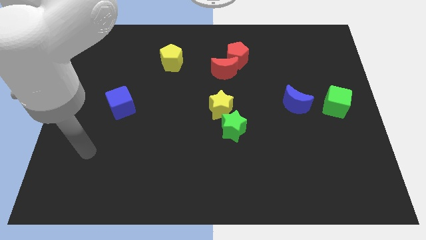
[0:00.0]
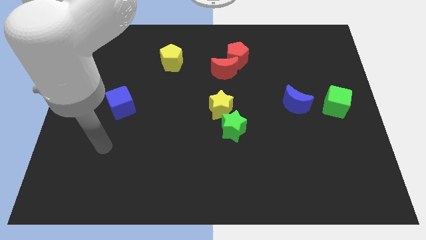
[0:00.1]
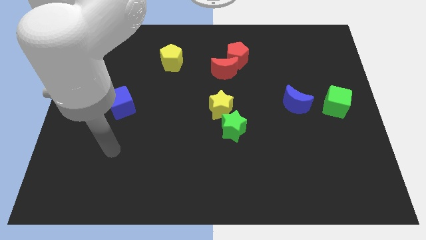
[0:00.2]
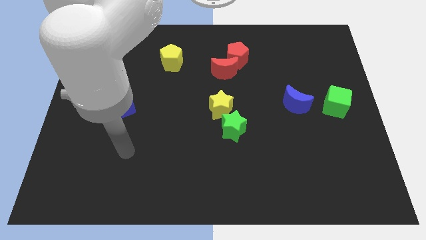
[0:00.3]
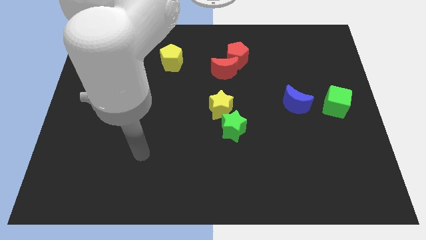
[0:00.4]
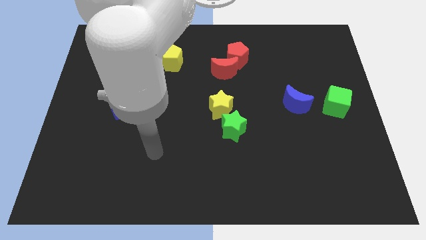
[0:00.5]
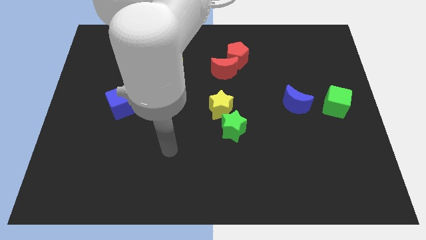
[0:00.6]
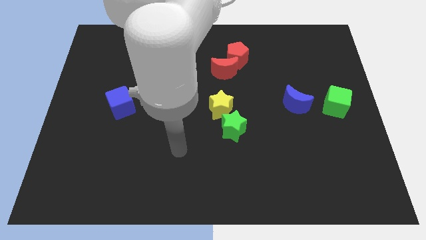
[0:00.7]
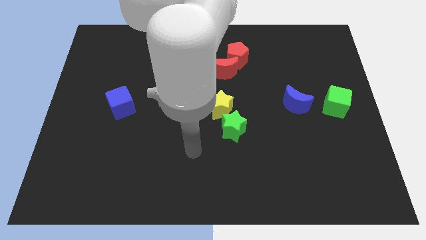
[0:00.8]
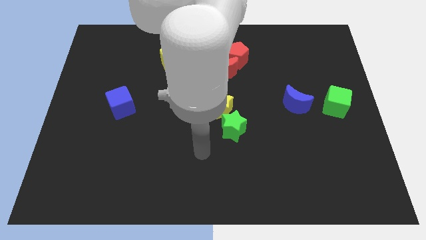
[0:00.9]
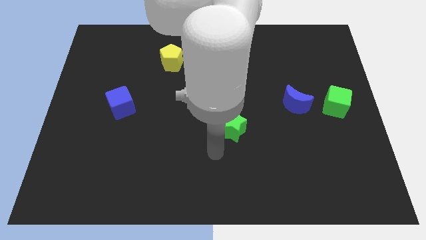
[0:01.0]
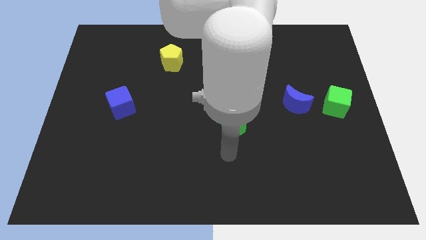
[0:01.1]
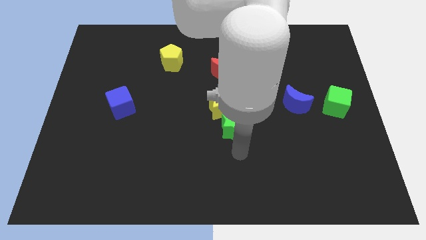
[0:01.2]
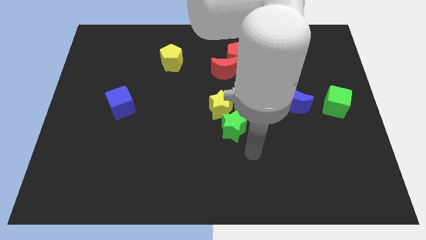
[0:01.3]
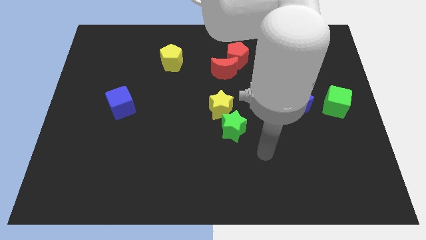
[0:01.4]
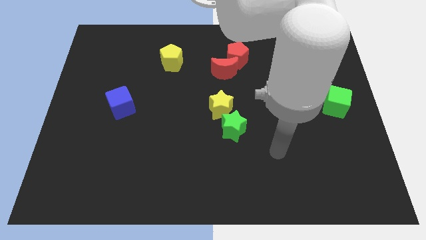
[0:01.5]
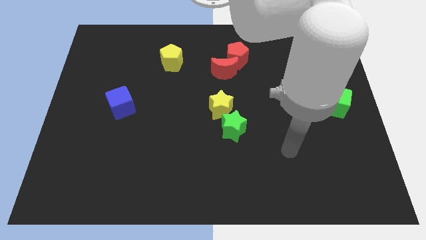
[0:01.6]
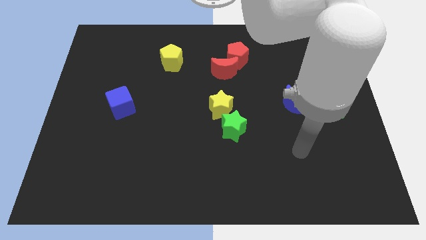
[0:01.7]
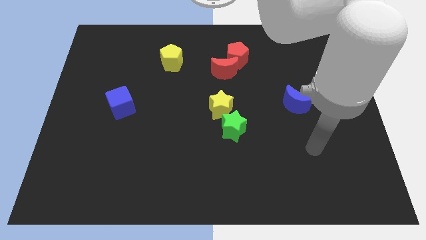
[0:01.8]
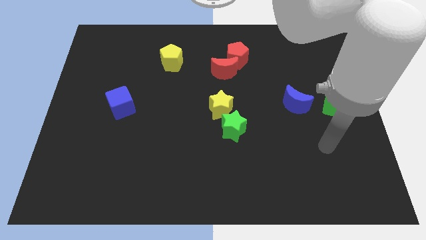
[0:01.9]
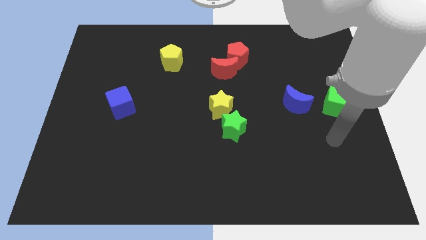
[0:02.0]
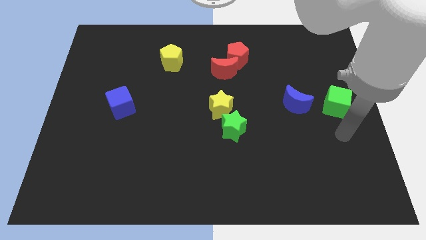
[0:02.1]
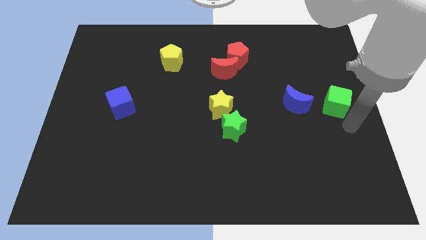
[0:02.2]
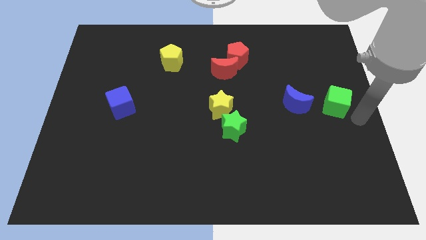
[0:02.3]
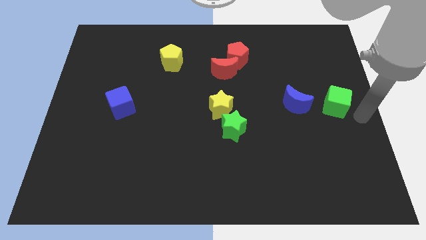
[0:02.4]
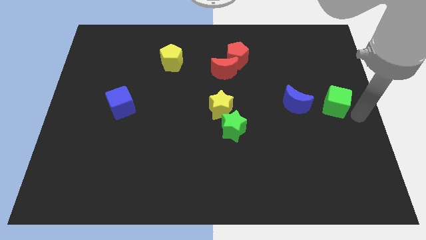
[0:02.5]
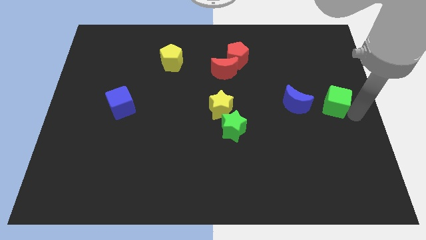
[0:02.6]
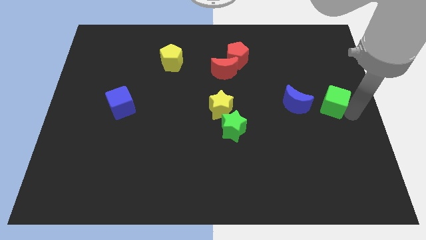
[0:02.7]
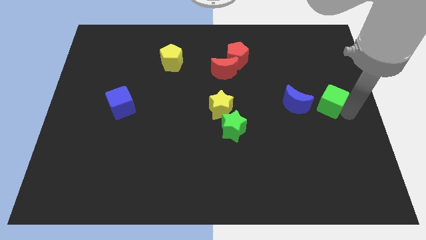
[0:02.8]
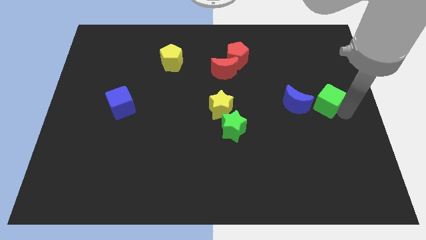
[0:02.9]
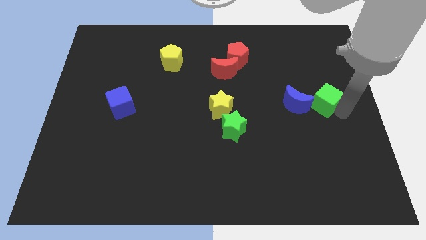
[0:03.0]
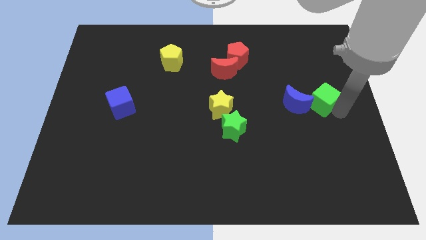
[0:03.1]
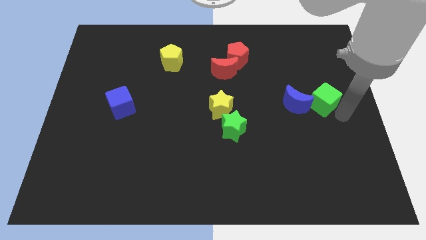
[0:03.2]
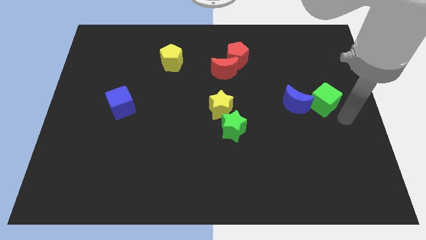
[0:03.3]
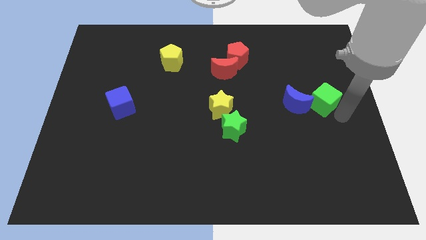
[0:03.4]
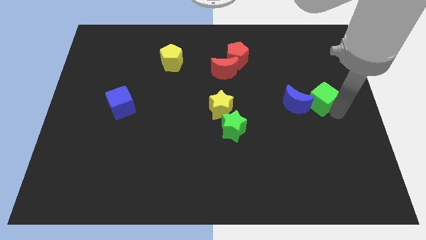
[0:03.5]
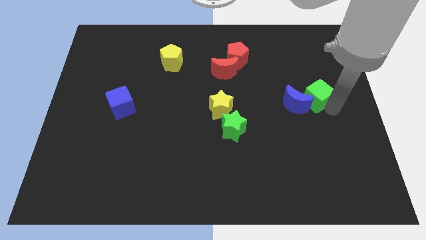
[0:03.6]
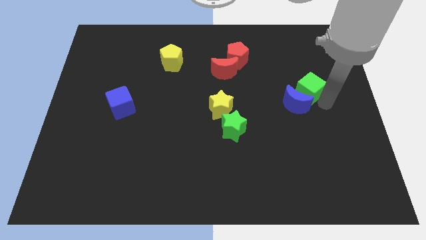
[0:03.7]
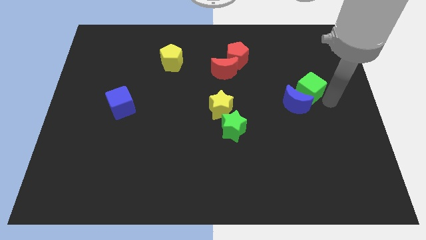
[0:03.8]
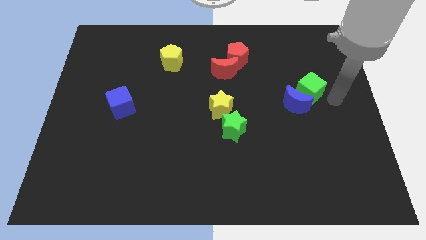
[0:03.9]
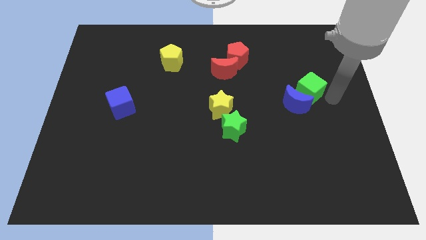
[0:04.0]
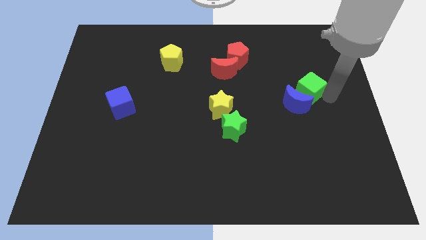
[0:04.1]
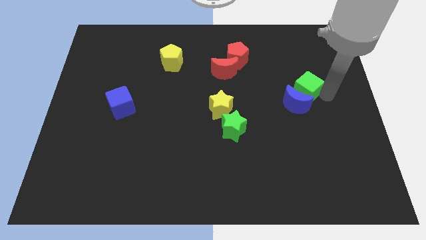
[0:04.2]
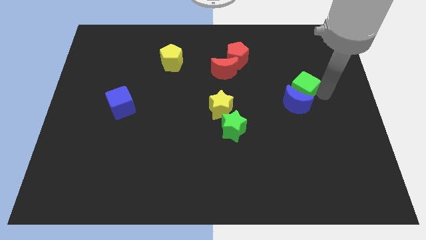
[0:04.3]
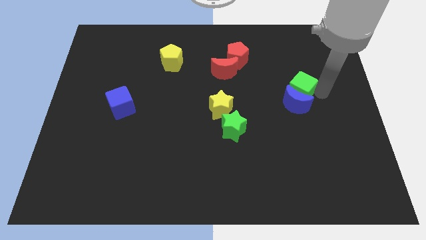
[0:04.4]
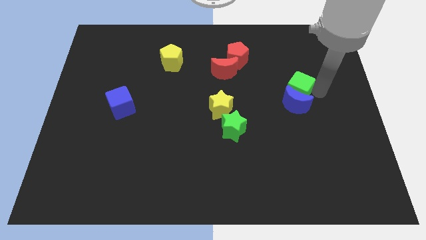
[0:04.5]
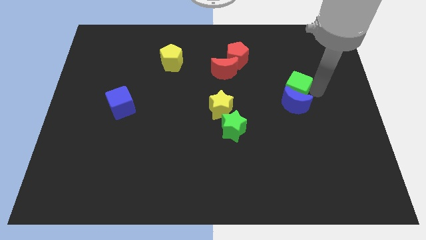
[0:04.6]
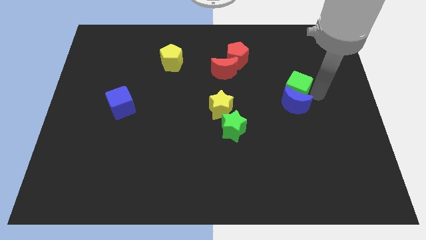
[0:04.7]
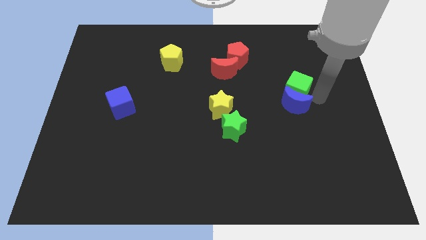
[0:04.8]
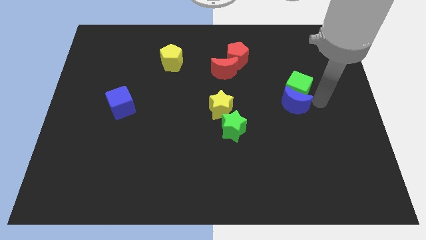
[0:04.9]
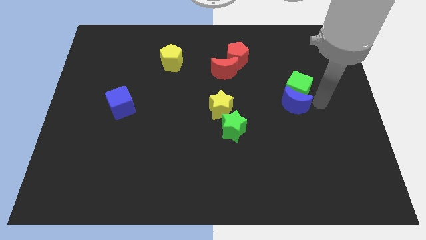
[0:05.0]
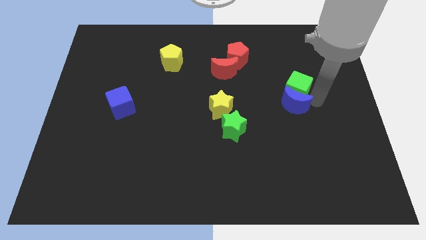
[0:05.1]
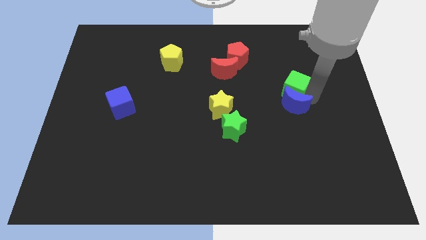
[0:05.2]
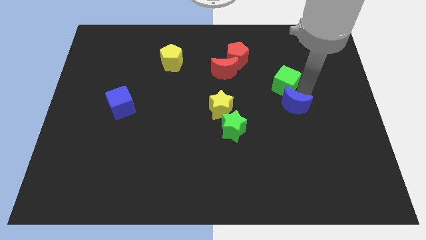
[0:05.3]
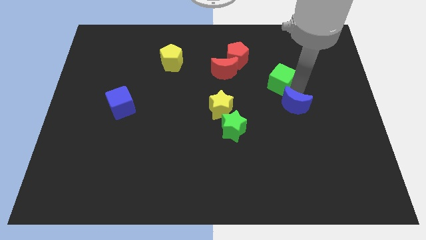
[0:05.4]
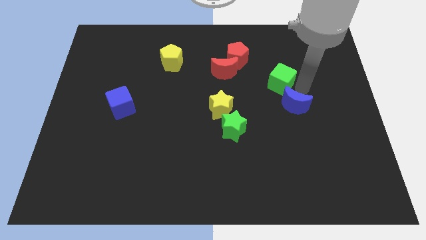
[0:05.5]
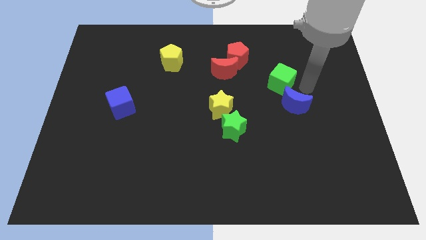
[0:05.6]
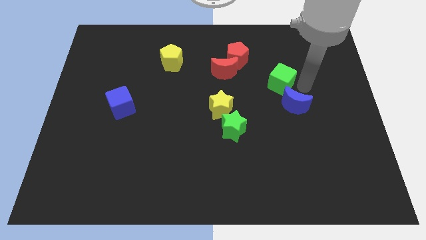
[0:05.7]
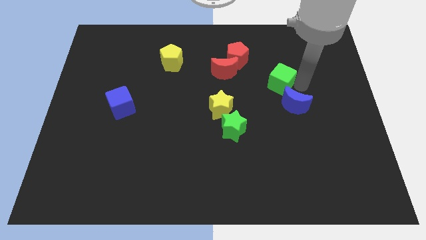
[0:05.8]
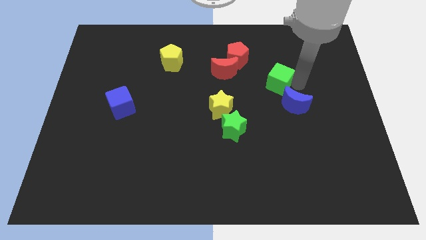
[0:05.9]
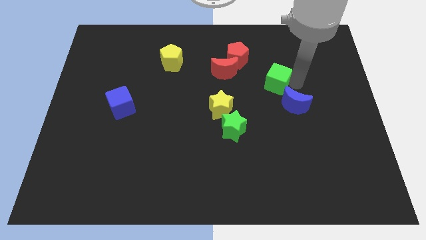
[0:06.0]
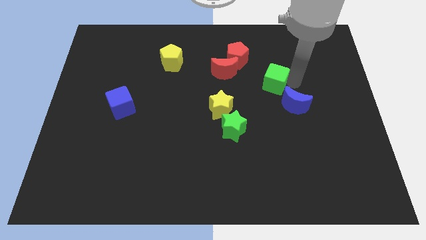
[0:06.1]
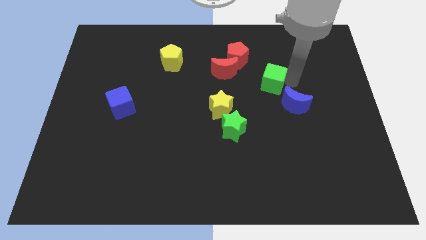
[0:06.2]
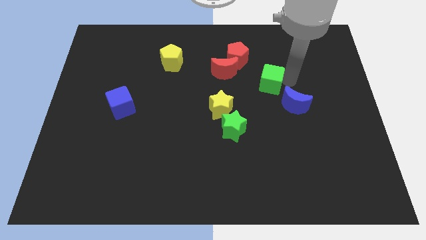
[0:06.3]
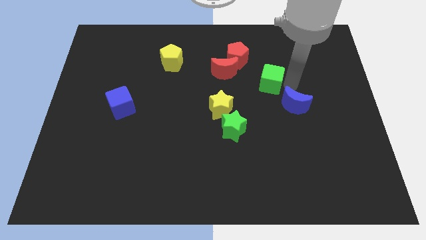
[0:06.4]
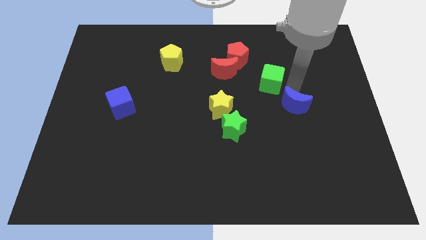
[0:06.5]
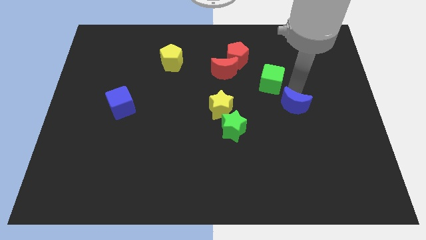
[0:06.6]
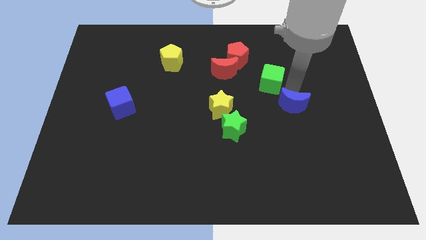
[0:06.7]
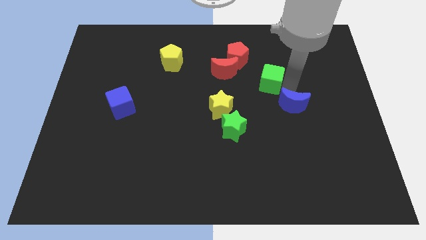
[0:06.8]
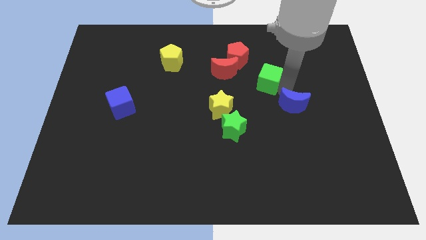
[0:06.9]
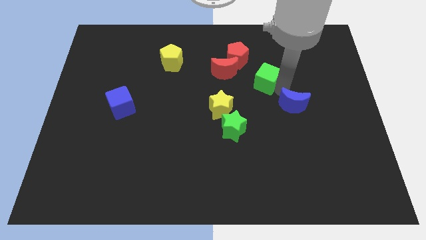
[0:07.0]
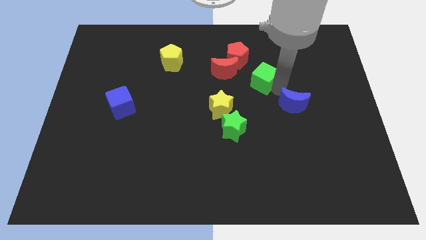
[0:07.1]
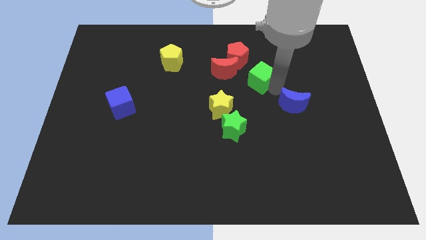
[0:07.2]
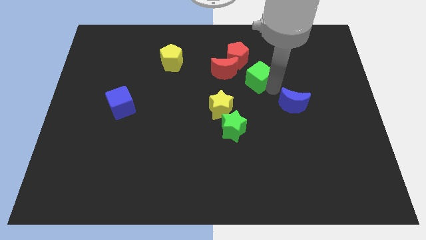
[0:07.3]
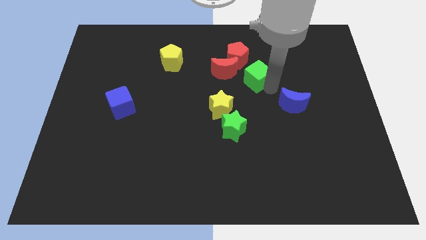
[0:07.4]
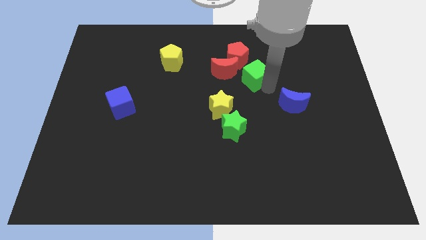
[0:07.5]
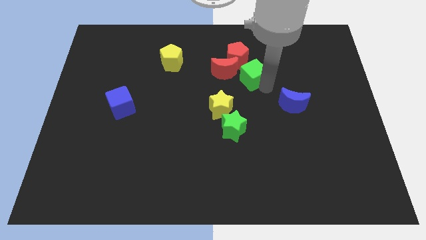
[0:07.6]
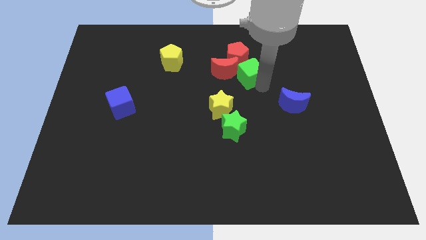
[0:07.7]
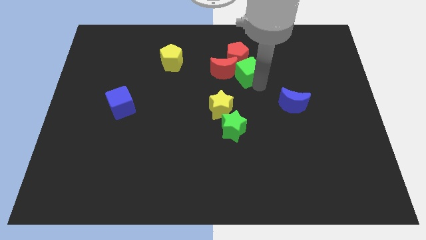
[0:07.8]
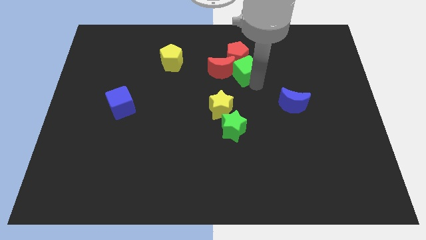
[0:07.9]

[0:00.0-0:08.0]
put the green cube towards the red pentagon
